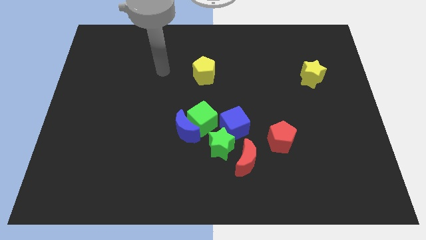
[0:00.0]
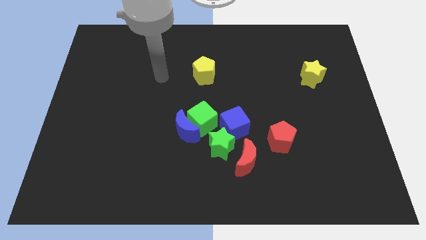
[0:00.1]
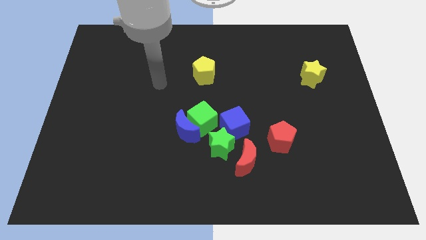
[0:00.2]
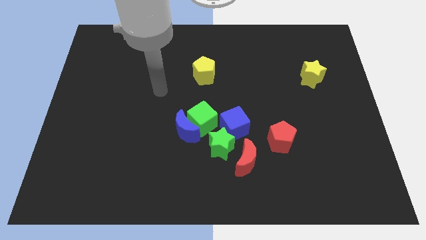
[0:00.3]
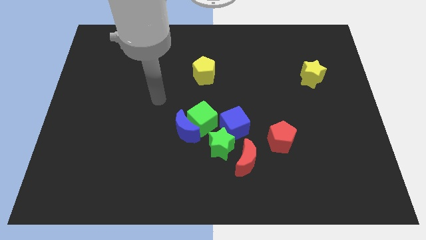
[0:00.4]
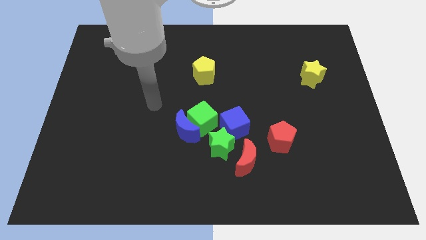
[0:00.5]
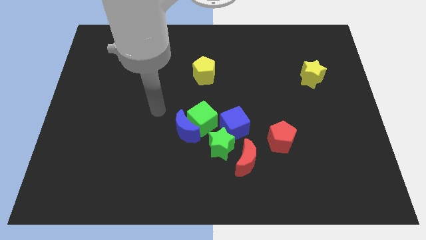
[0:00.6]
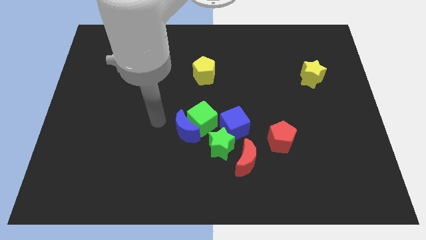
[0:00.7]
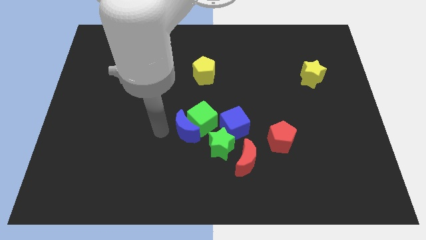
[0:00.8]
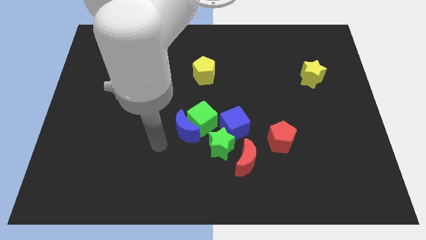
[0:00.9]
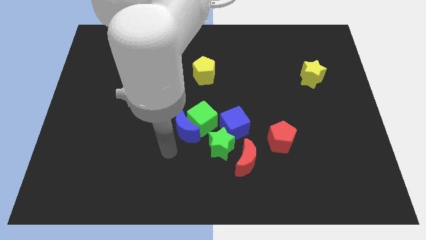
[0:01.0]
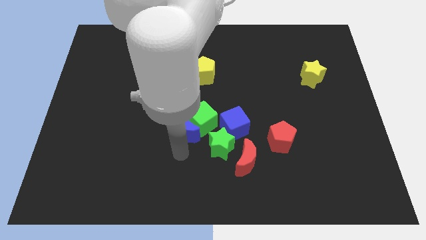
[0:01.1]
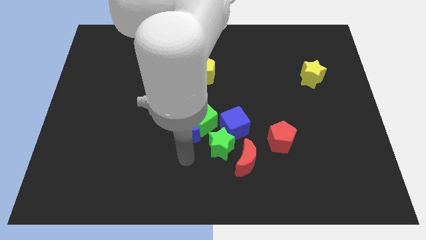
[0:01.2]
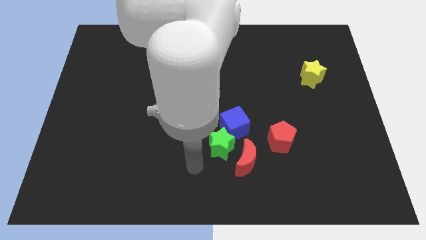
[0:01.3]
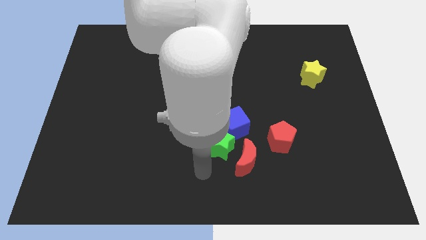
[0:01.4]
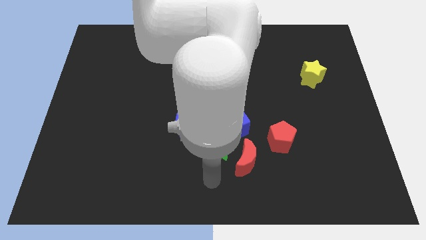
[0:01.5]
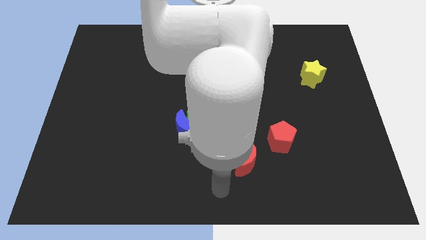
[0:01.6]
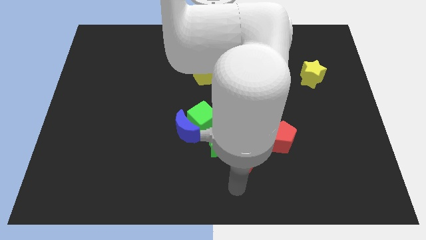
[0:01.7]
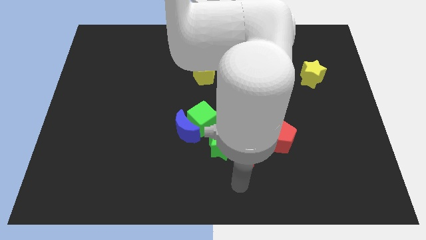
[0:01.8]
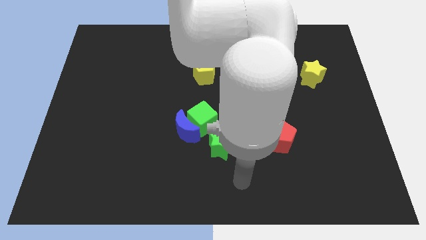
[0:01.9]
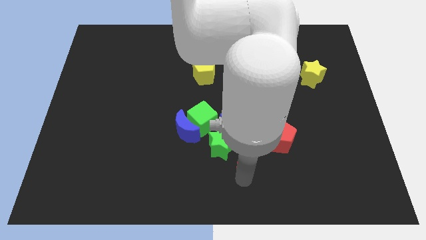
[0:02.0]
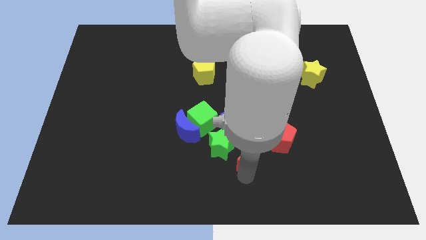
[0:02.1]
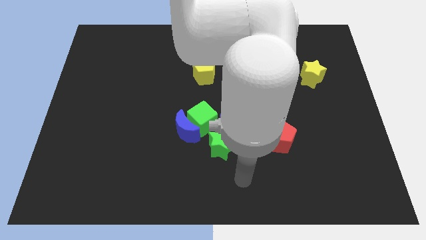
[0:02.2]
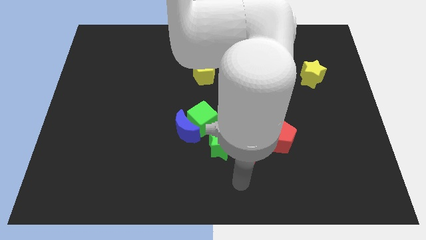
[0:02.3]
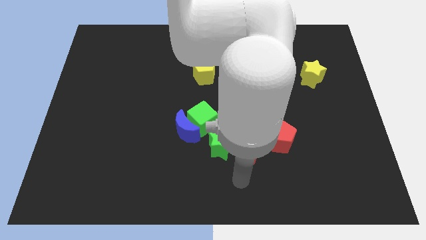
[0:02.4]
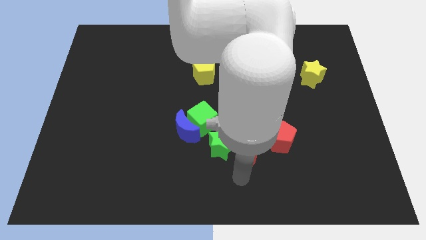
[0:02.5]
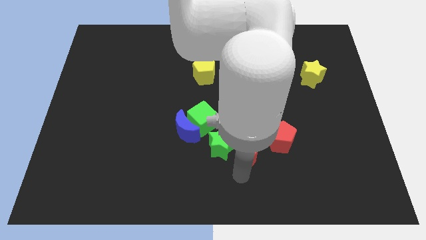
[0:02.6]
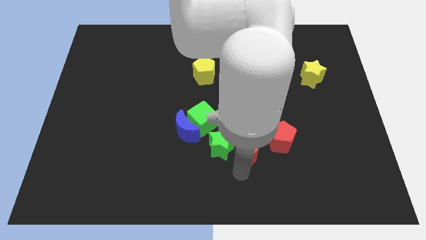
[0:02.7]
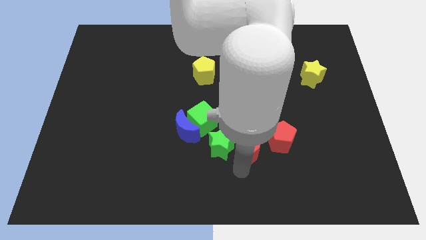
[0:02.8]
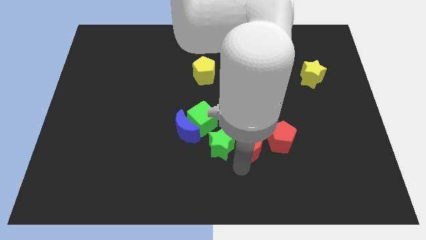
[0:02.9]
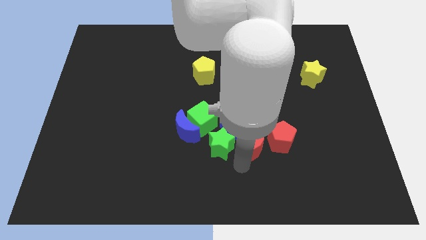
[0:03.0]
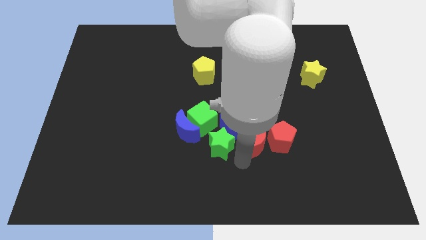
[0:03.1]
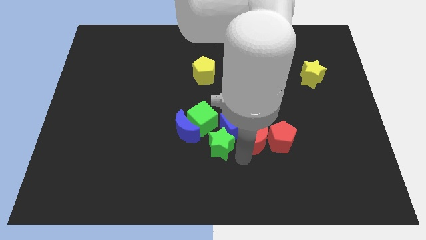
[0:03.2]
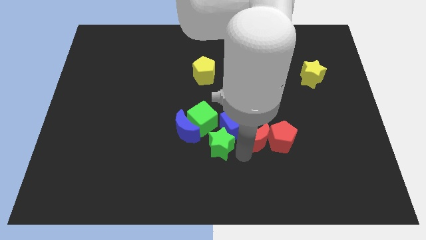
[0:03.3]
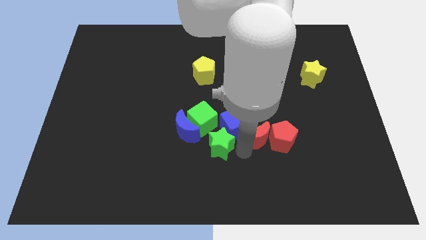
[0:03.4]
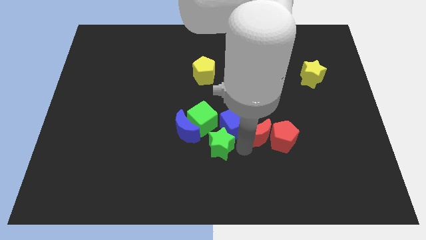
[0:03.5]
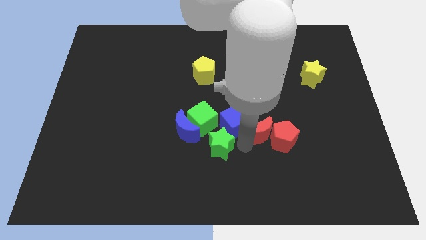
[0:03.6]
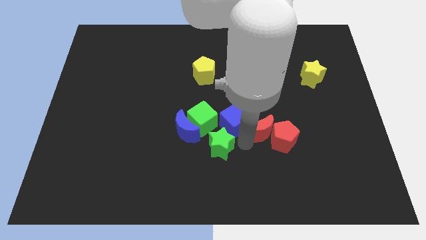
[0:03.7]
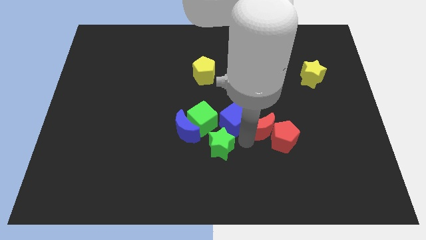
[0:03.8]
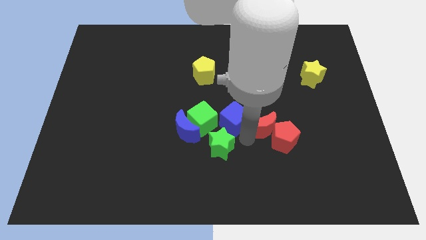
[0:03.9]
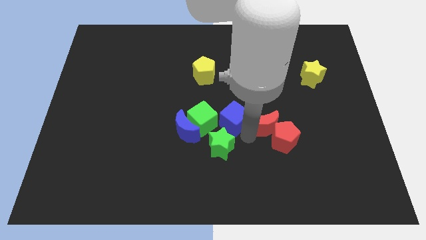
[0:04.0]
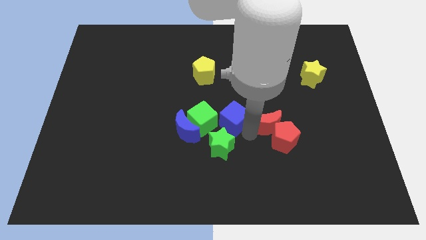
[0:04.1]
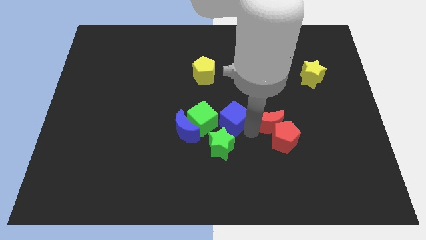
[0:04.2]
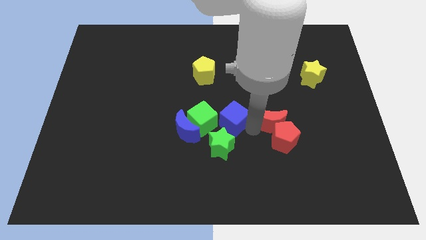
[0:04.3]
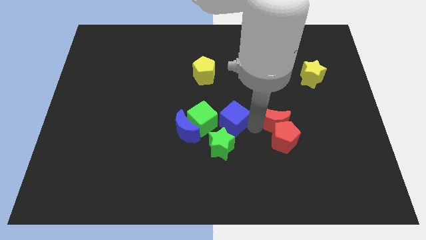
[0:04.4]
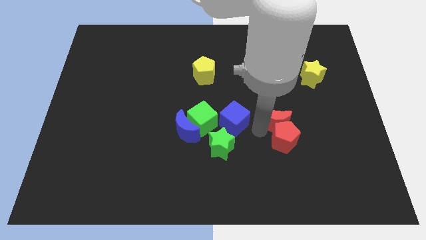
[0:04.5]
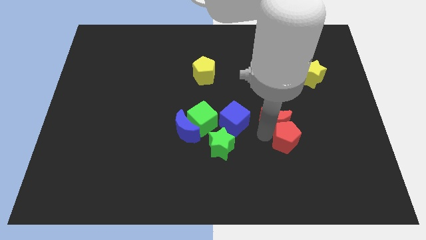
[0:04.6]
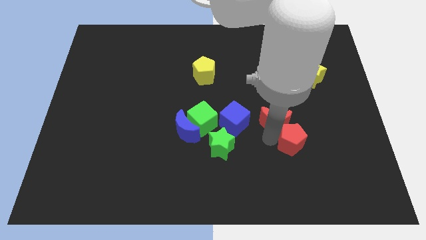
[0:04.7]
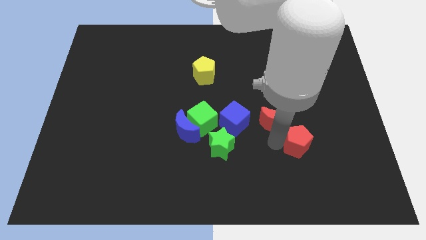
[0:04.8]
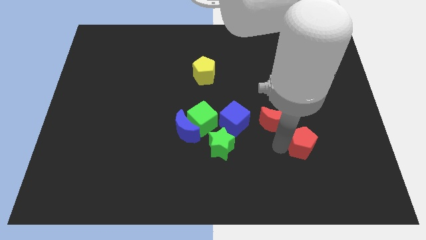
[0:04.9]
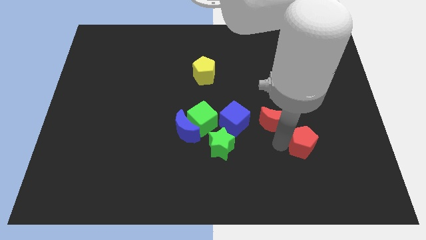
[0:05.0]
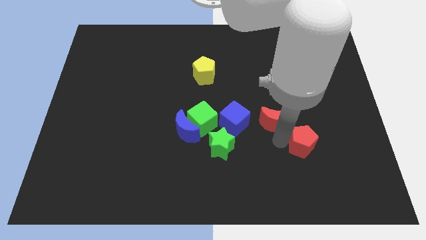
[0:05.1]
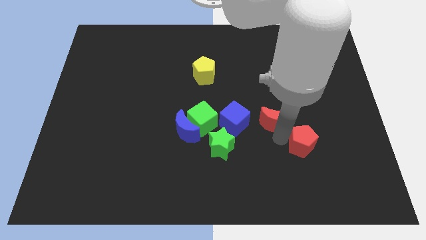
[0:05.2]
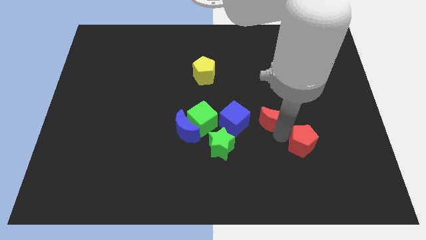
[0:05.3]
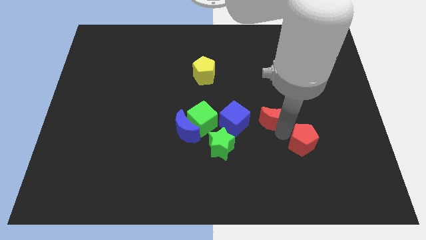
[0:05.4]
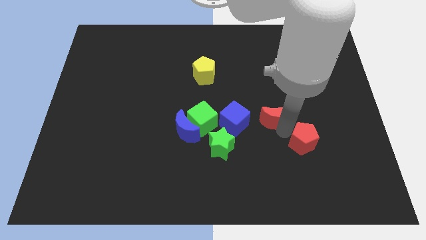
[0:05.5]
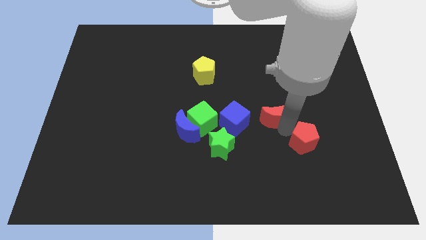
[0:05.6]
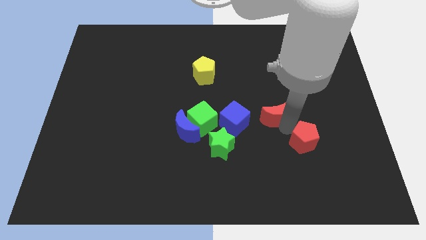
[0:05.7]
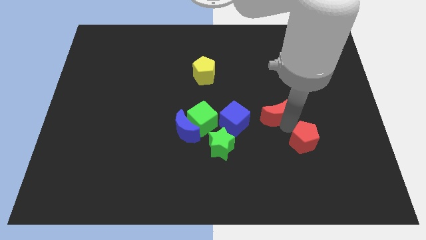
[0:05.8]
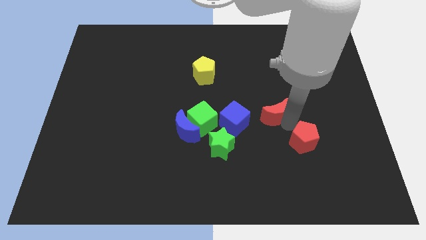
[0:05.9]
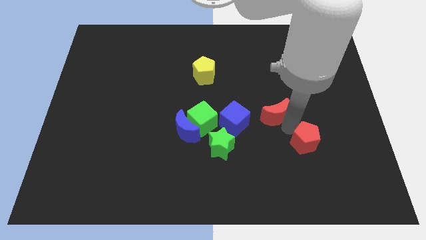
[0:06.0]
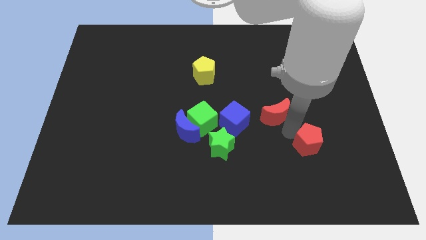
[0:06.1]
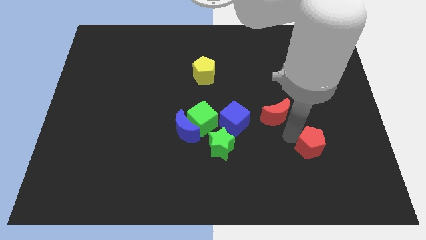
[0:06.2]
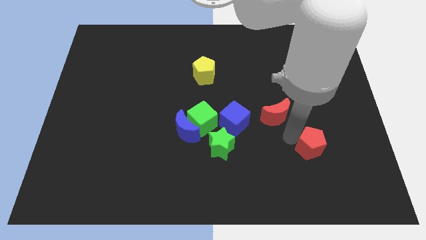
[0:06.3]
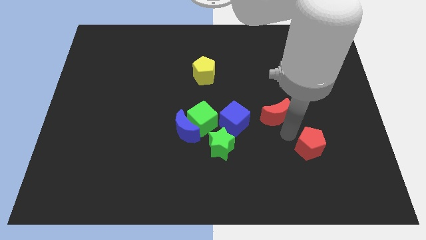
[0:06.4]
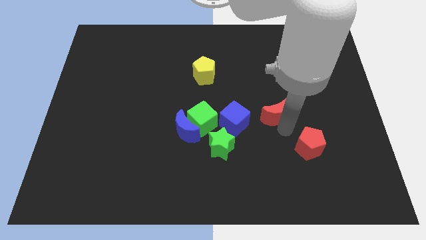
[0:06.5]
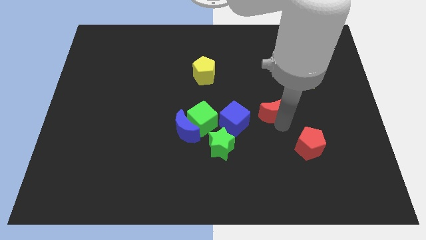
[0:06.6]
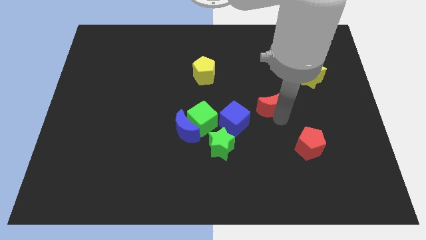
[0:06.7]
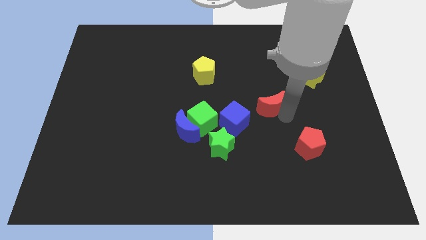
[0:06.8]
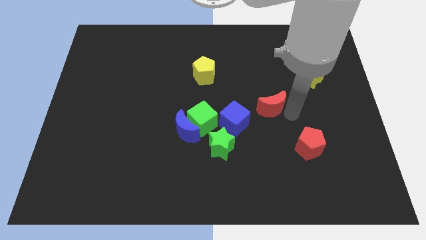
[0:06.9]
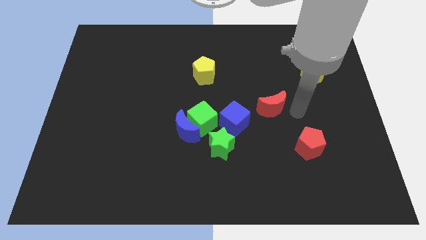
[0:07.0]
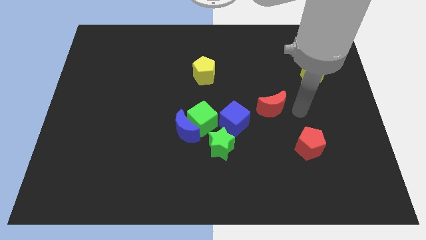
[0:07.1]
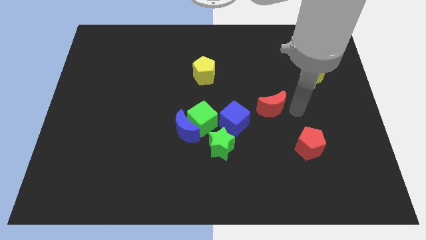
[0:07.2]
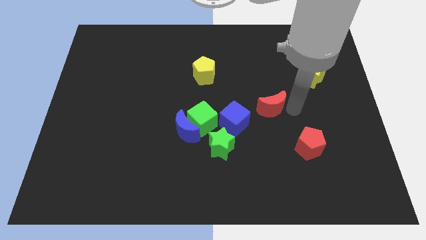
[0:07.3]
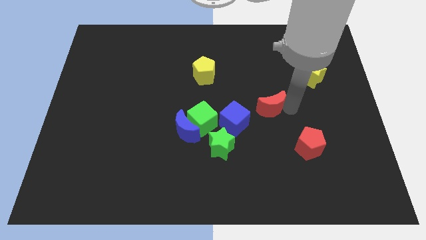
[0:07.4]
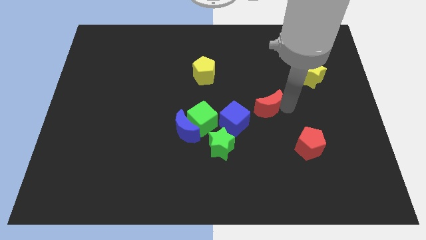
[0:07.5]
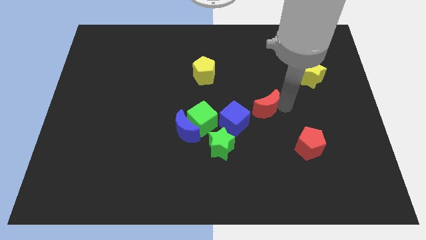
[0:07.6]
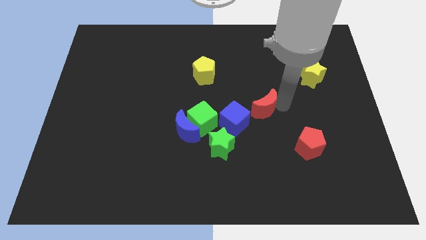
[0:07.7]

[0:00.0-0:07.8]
push the red moon to the center of the board
